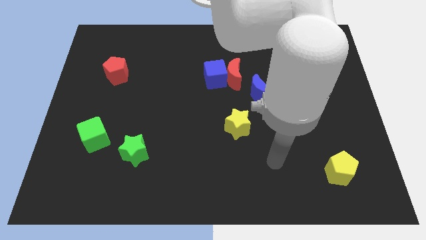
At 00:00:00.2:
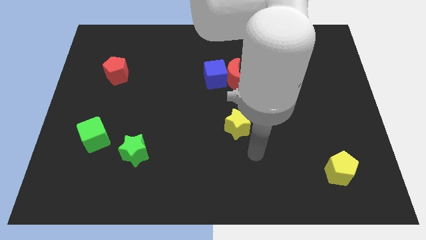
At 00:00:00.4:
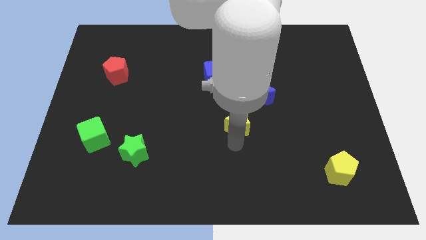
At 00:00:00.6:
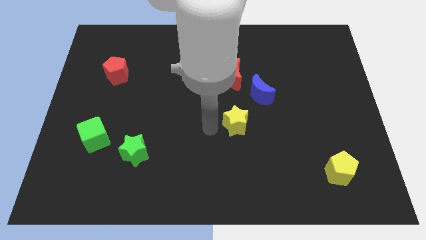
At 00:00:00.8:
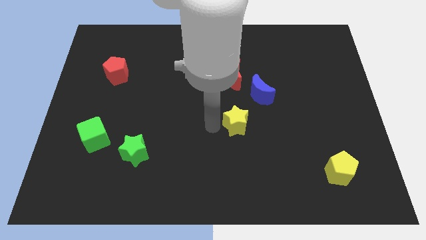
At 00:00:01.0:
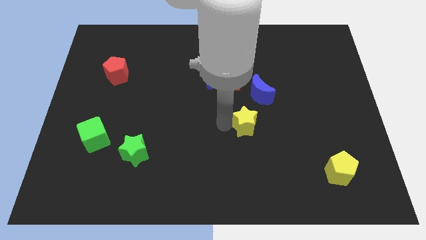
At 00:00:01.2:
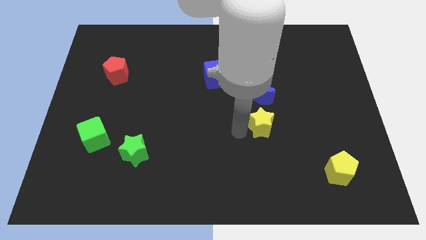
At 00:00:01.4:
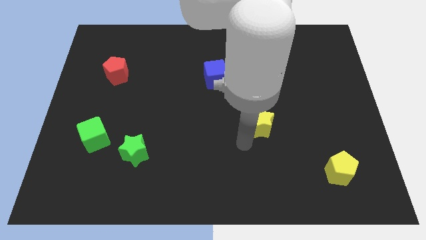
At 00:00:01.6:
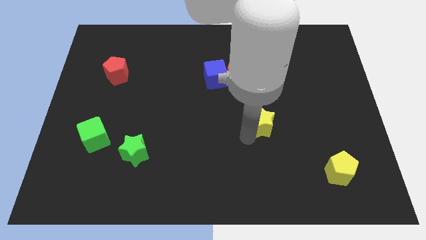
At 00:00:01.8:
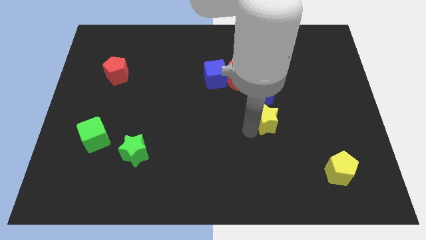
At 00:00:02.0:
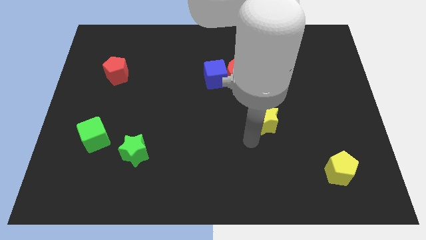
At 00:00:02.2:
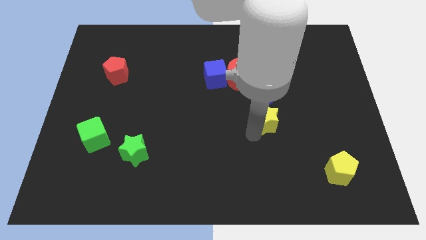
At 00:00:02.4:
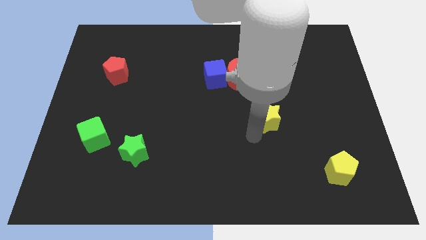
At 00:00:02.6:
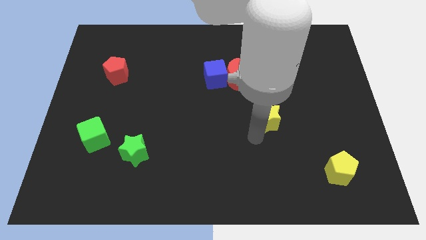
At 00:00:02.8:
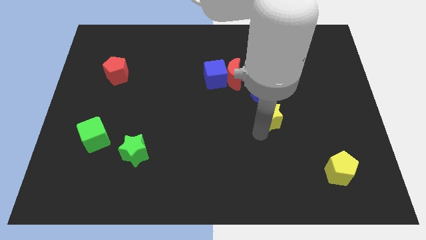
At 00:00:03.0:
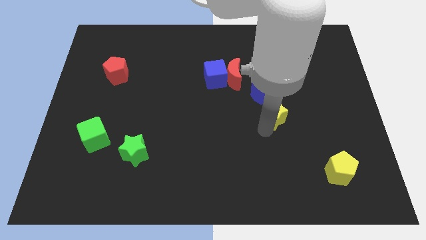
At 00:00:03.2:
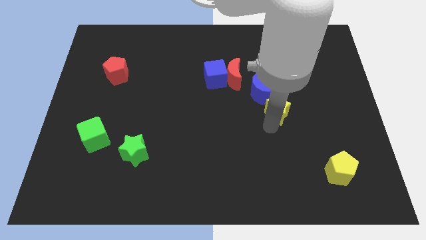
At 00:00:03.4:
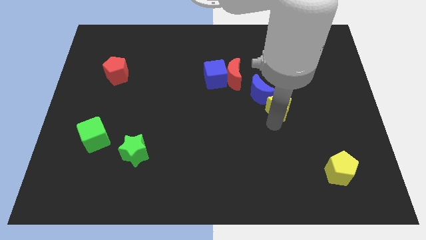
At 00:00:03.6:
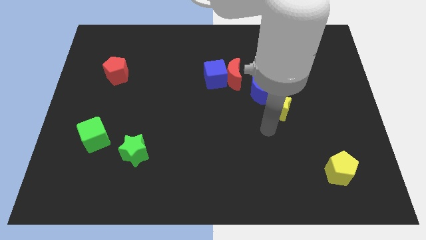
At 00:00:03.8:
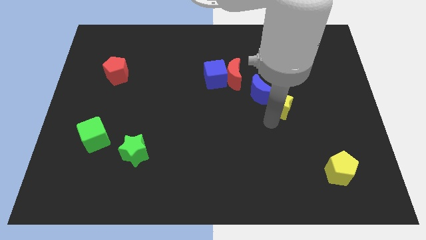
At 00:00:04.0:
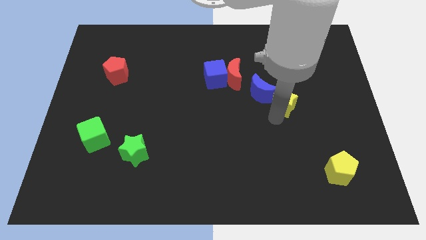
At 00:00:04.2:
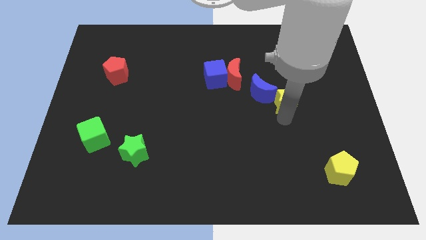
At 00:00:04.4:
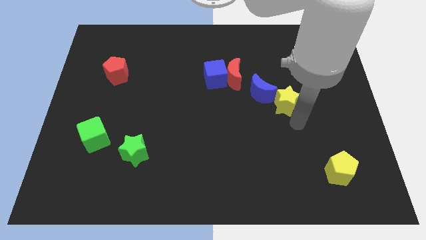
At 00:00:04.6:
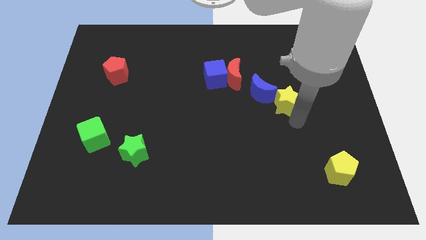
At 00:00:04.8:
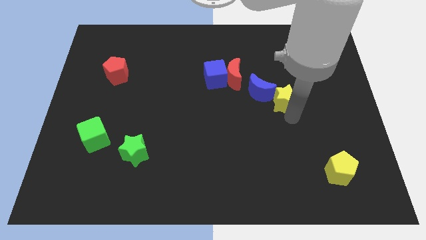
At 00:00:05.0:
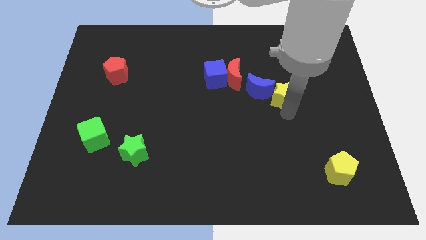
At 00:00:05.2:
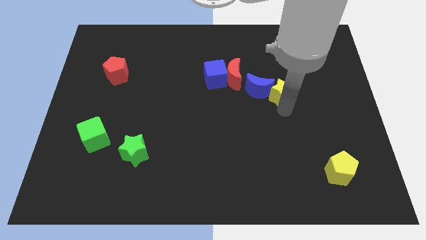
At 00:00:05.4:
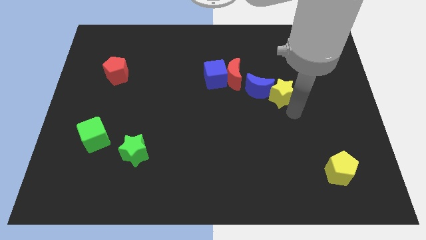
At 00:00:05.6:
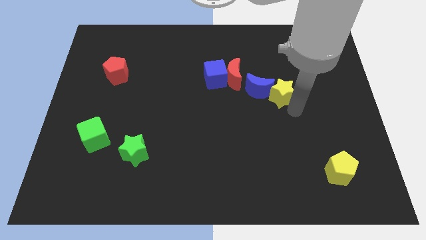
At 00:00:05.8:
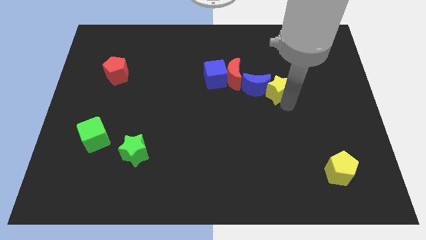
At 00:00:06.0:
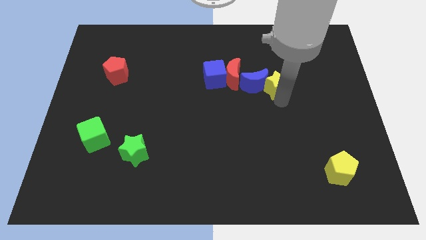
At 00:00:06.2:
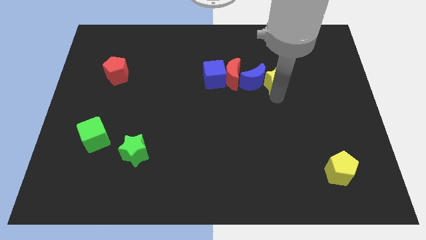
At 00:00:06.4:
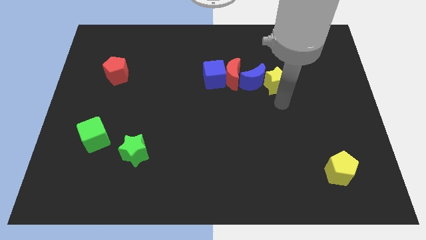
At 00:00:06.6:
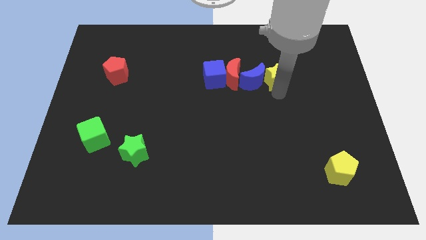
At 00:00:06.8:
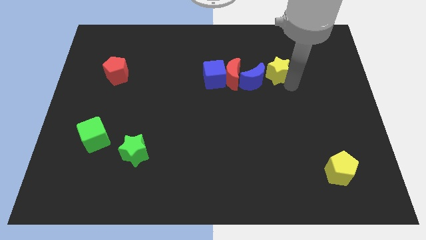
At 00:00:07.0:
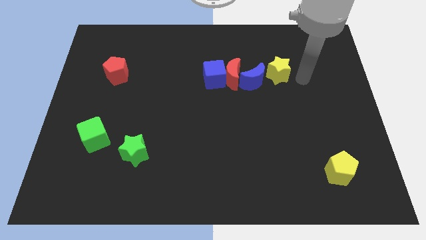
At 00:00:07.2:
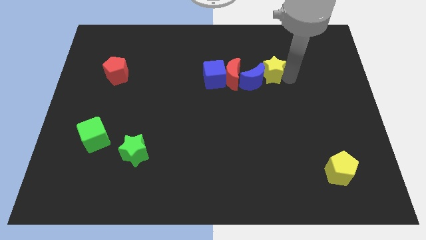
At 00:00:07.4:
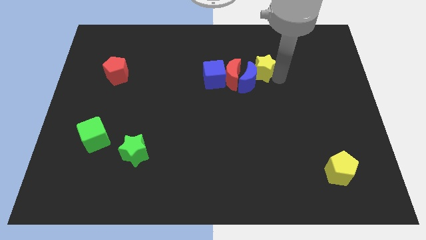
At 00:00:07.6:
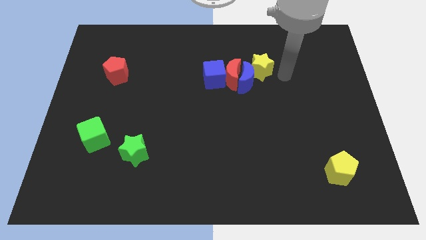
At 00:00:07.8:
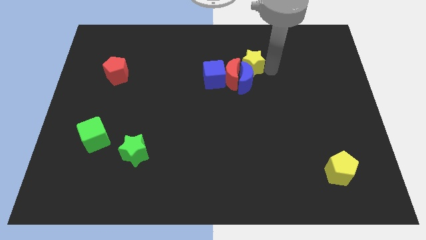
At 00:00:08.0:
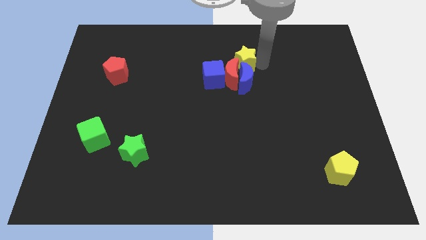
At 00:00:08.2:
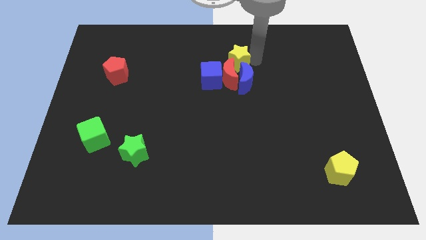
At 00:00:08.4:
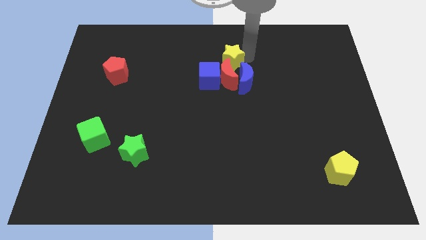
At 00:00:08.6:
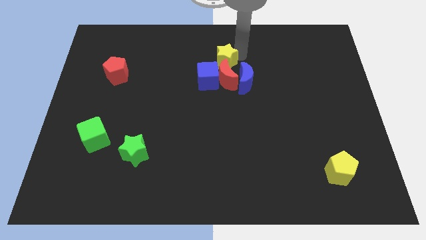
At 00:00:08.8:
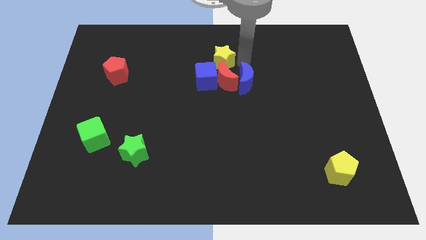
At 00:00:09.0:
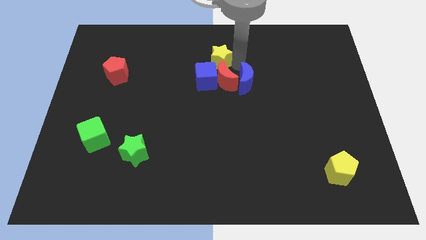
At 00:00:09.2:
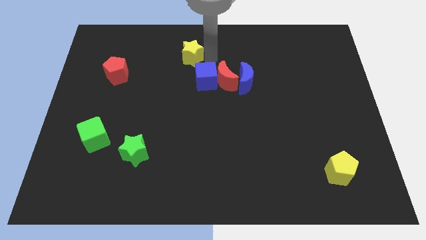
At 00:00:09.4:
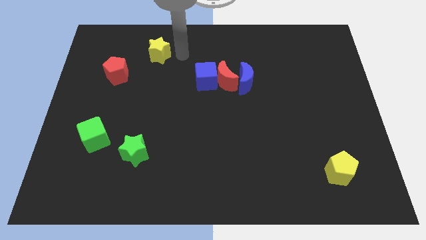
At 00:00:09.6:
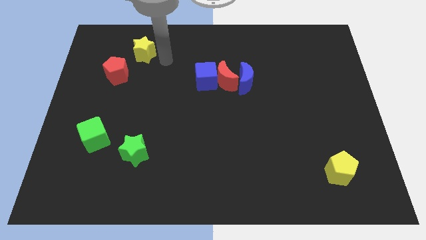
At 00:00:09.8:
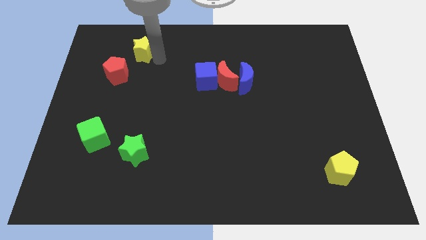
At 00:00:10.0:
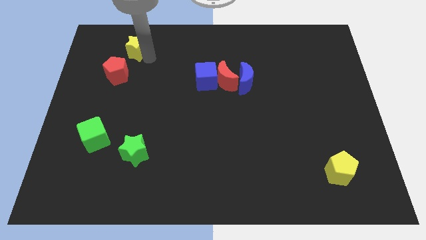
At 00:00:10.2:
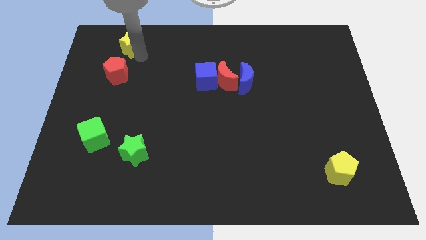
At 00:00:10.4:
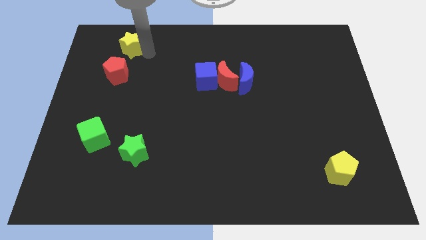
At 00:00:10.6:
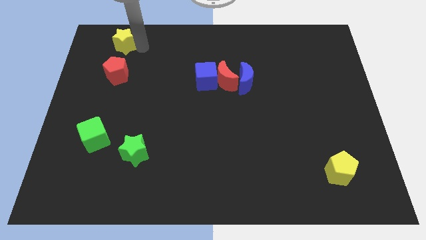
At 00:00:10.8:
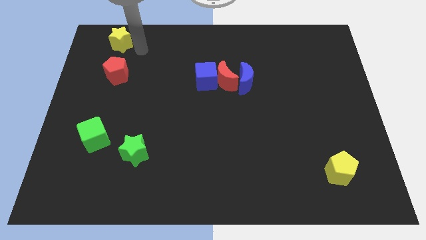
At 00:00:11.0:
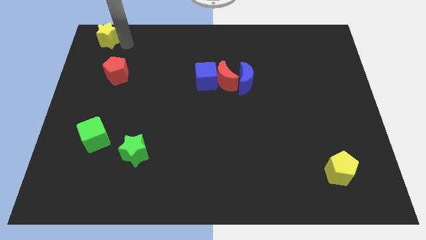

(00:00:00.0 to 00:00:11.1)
slide the yellow star to the top left corner

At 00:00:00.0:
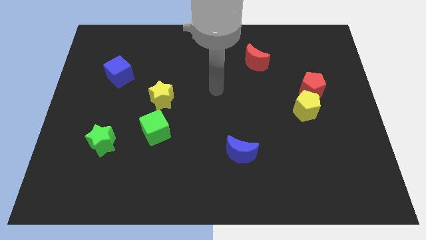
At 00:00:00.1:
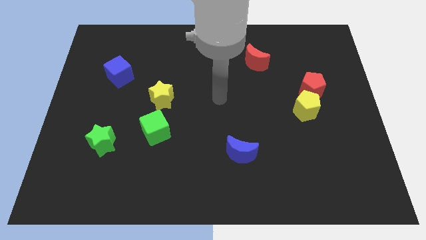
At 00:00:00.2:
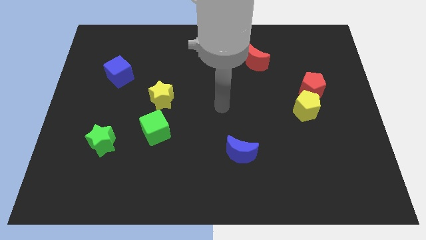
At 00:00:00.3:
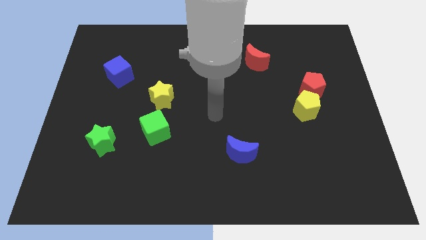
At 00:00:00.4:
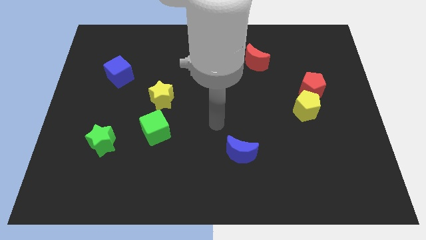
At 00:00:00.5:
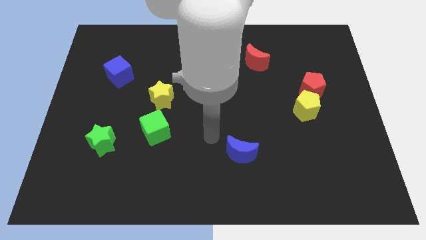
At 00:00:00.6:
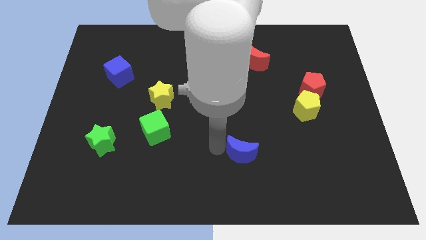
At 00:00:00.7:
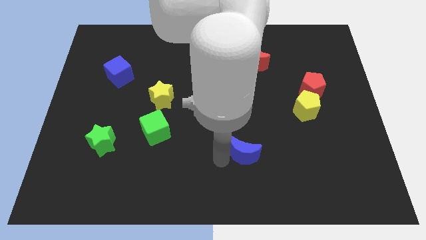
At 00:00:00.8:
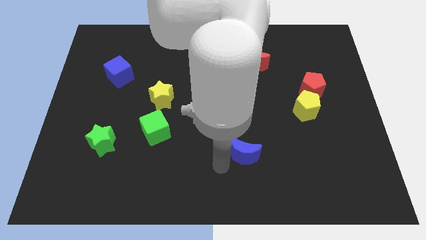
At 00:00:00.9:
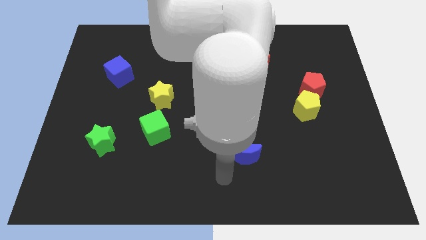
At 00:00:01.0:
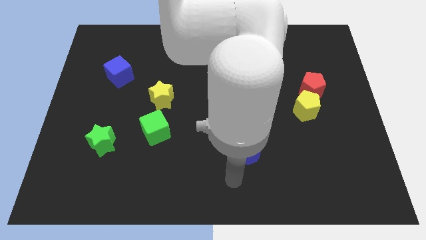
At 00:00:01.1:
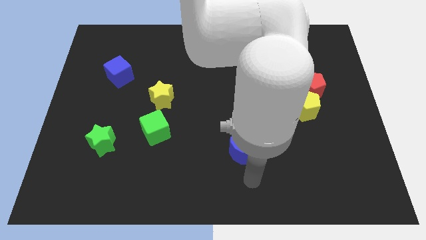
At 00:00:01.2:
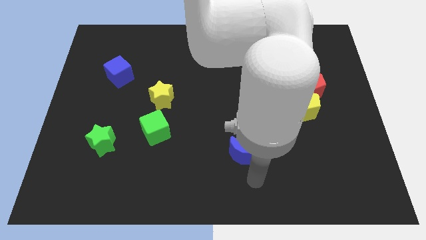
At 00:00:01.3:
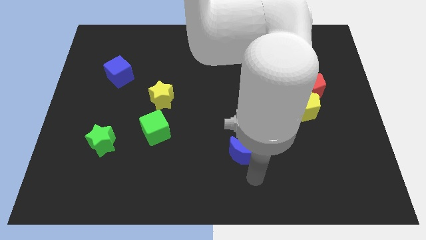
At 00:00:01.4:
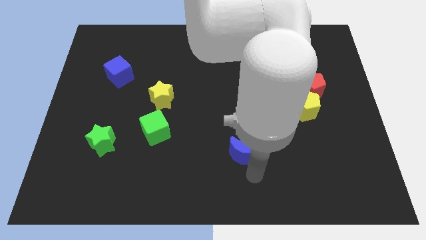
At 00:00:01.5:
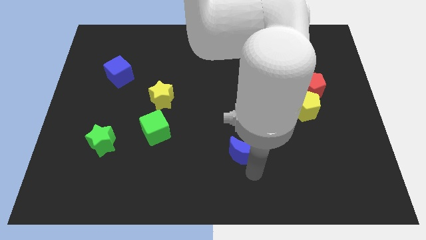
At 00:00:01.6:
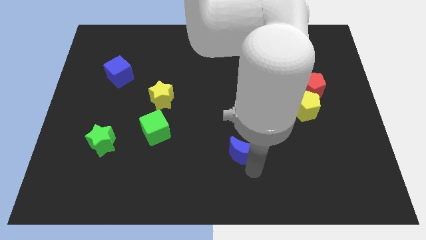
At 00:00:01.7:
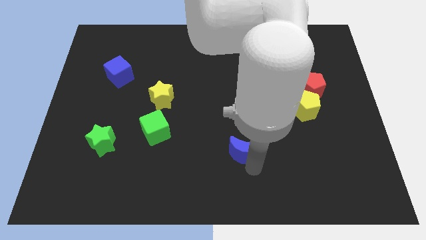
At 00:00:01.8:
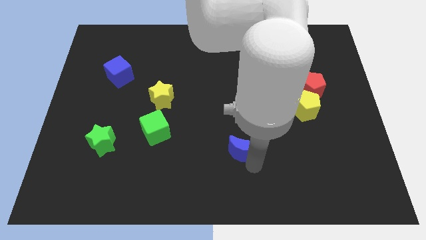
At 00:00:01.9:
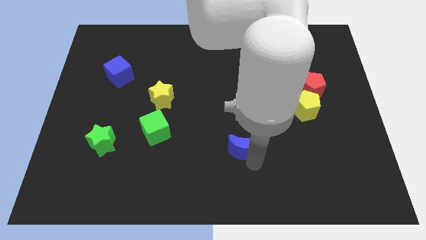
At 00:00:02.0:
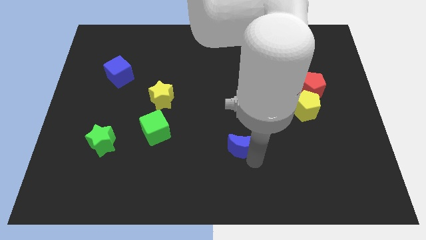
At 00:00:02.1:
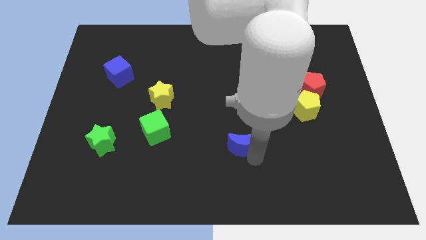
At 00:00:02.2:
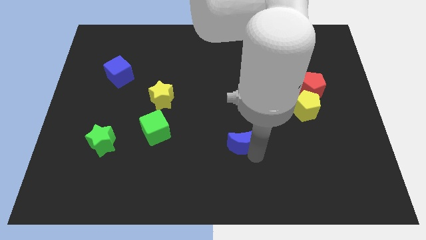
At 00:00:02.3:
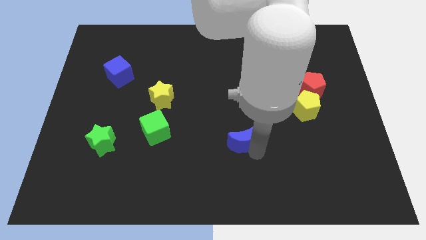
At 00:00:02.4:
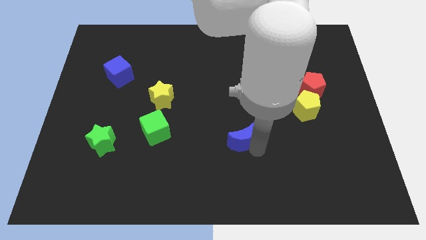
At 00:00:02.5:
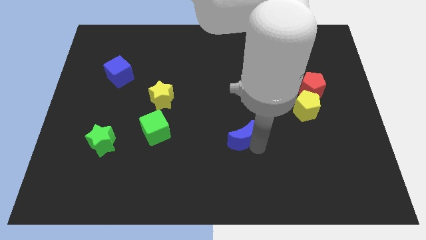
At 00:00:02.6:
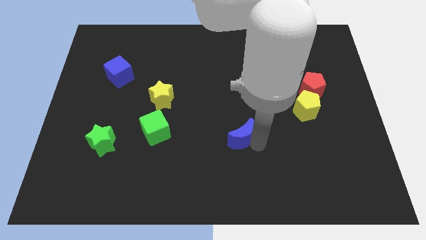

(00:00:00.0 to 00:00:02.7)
push the blue moon to the center
